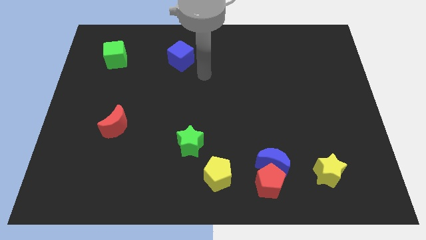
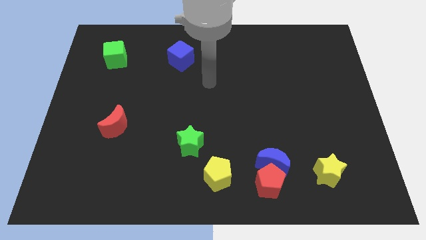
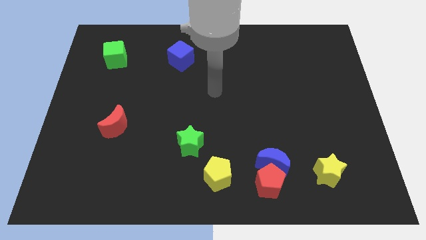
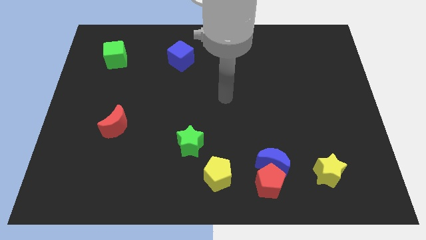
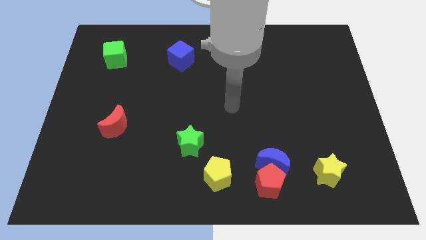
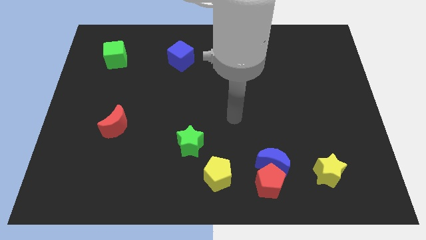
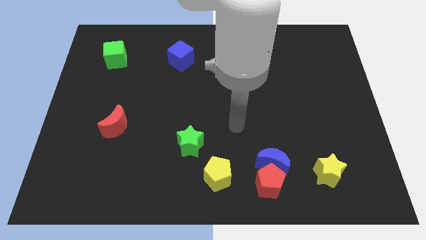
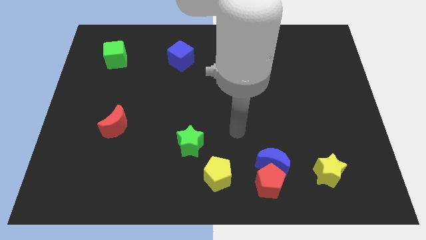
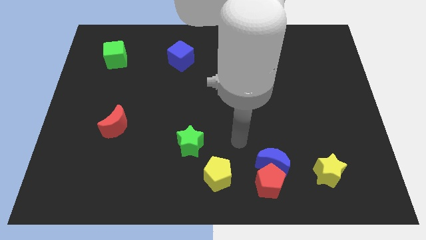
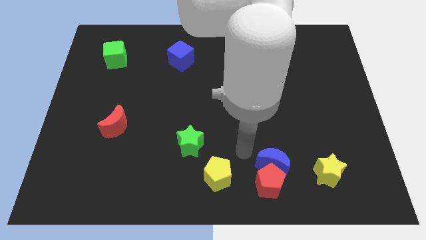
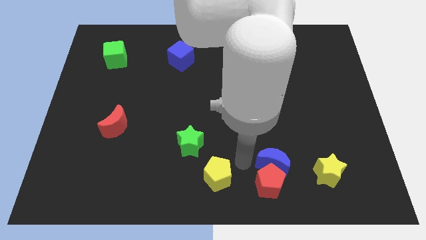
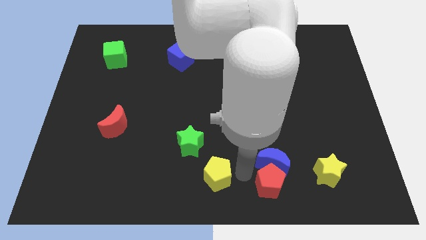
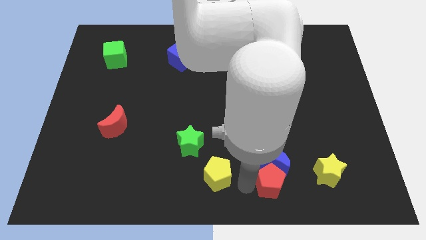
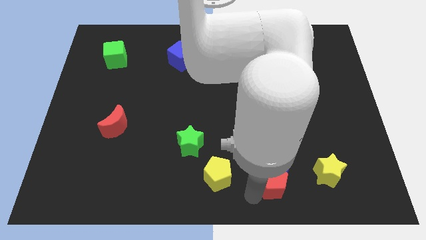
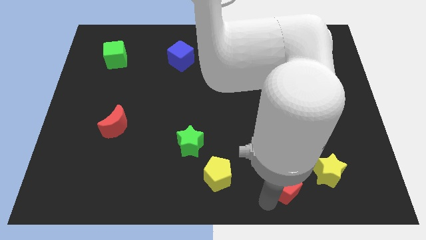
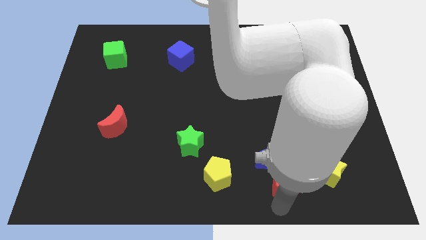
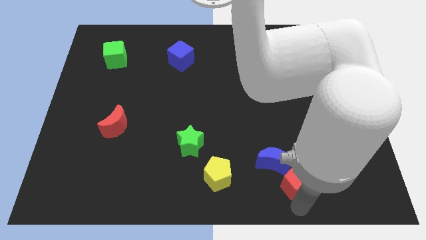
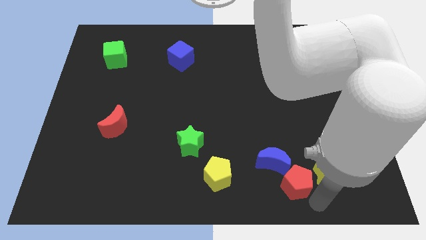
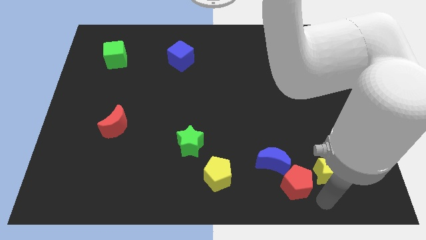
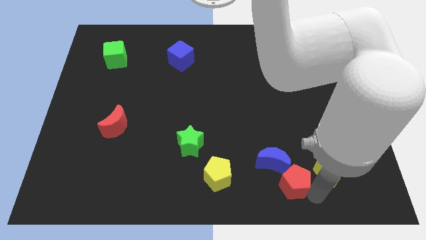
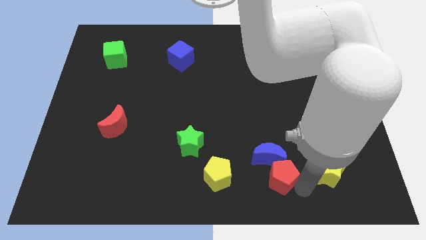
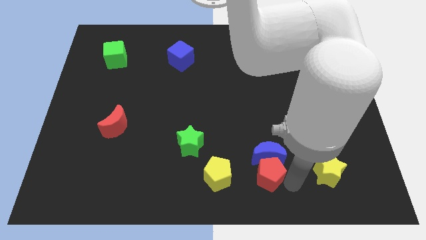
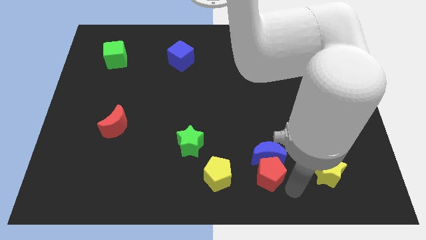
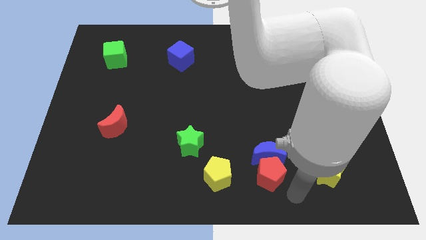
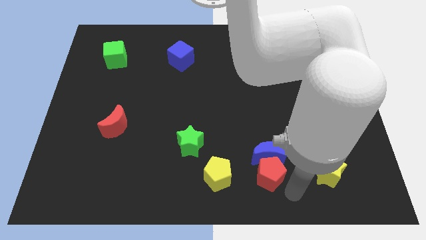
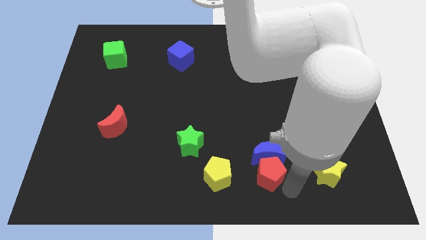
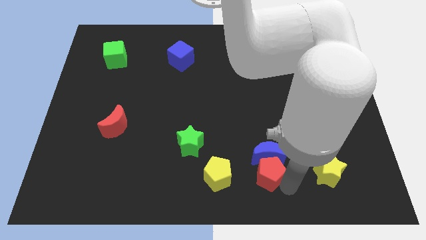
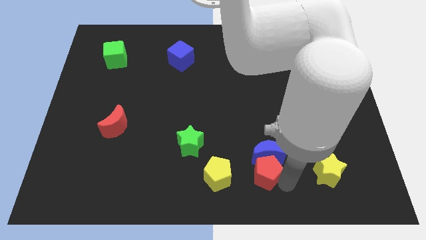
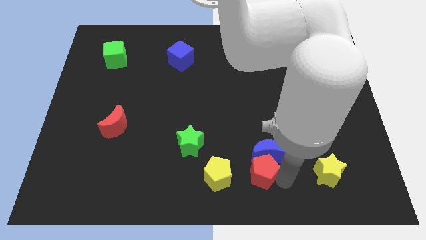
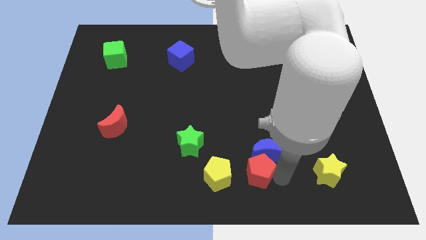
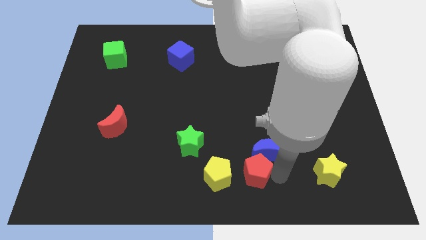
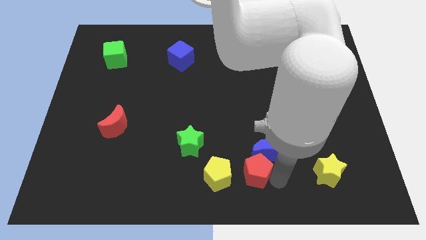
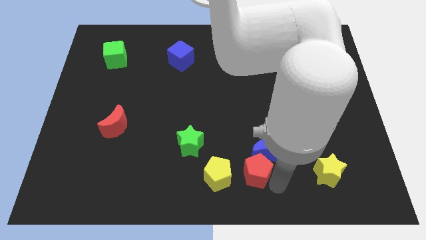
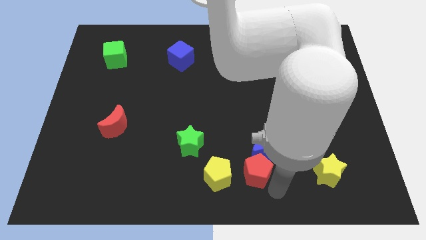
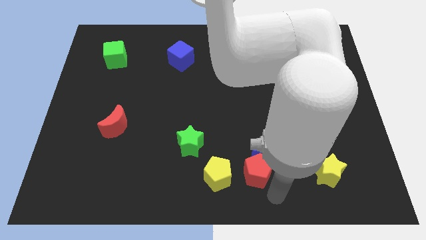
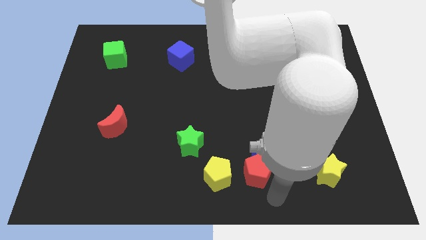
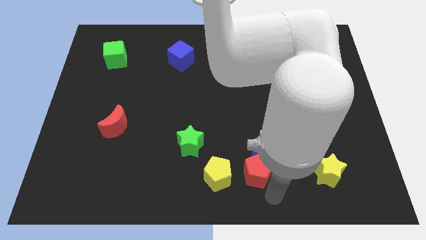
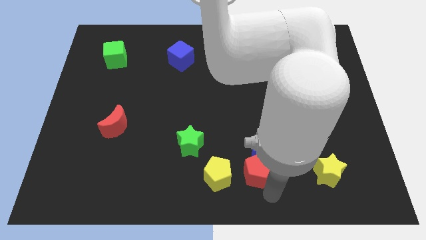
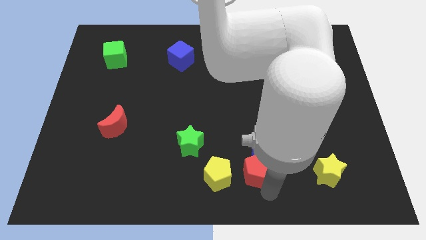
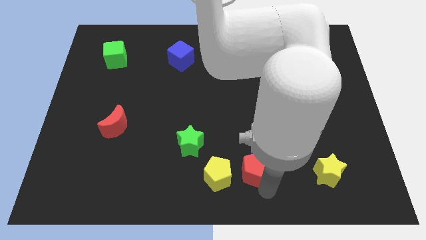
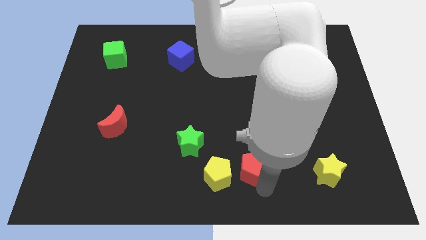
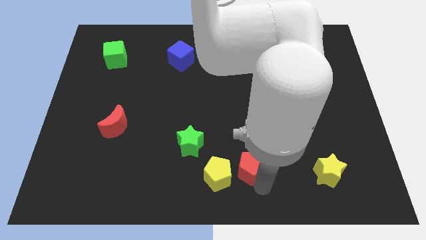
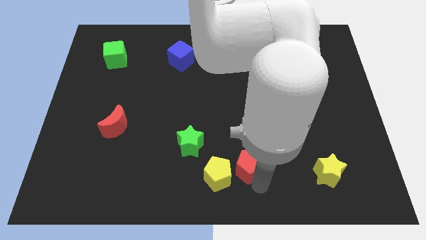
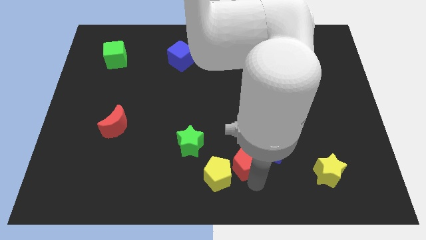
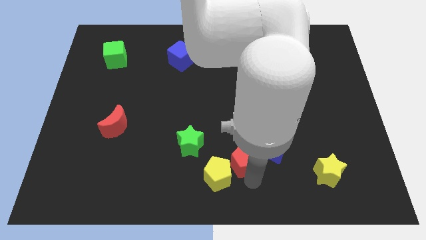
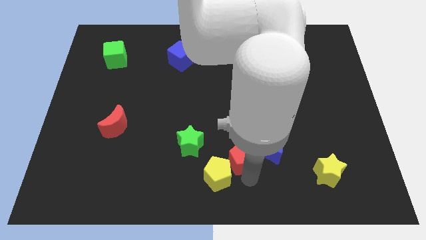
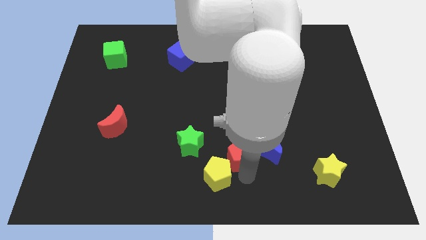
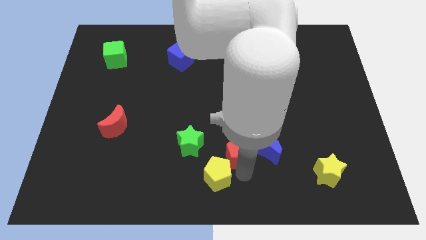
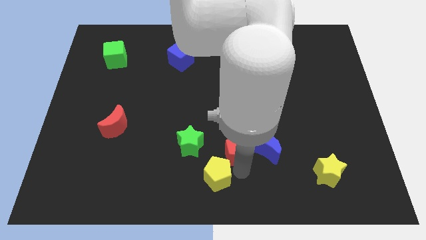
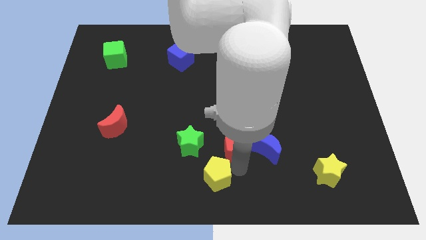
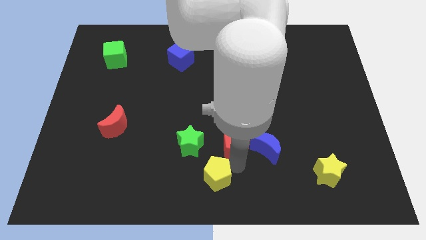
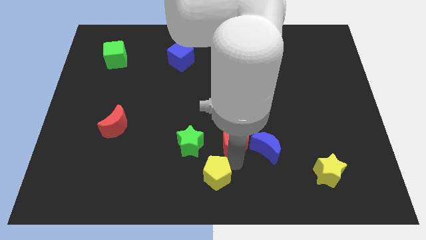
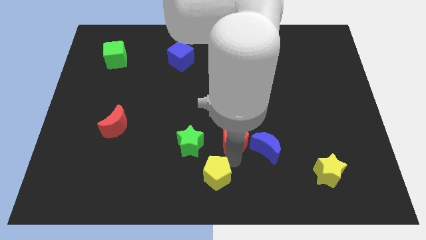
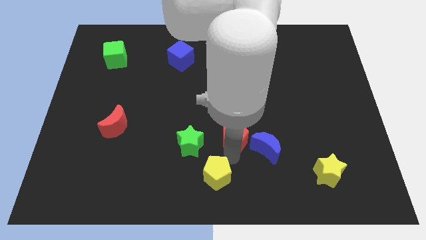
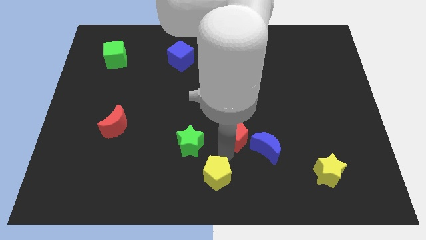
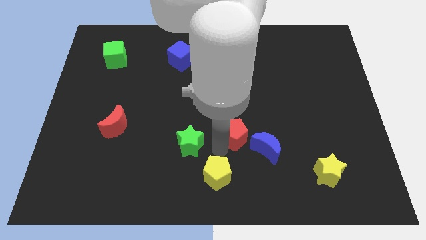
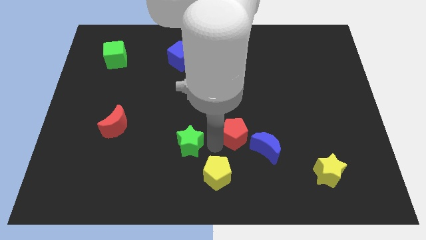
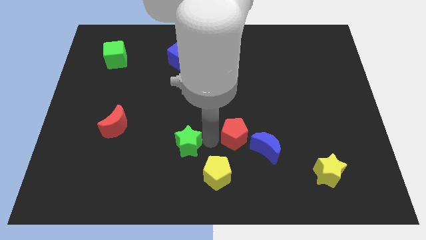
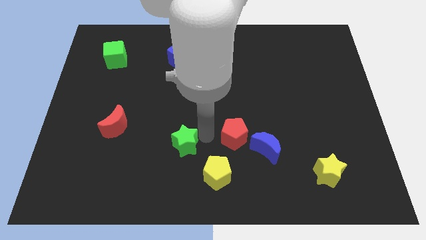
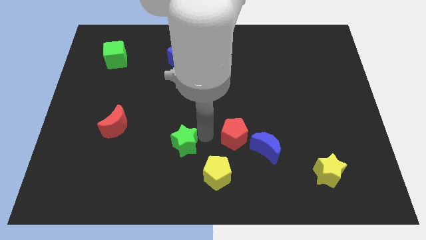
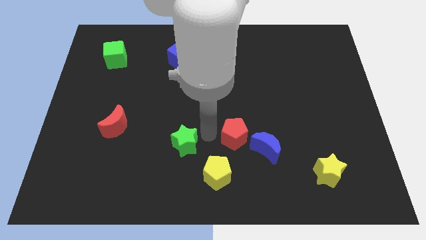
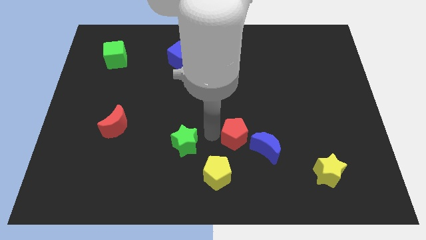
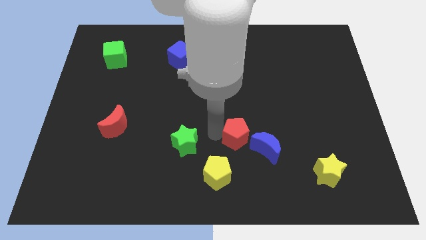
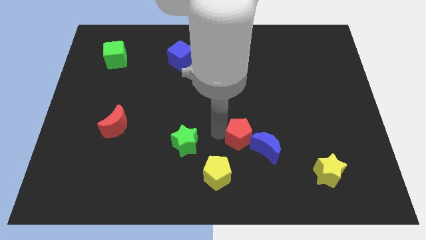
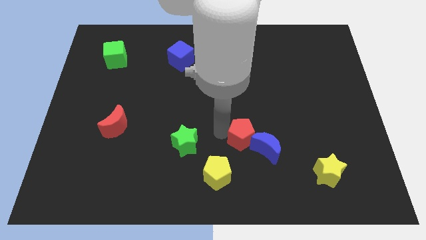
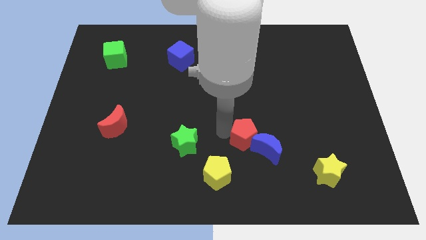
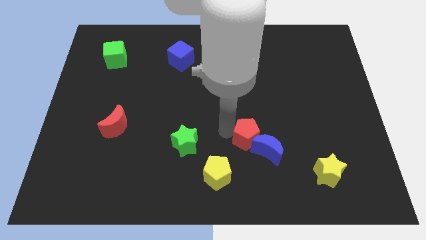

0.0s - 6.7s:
move the red pentagon above the blue moon

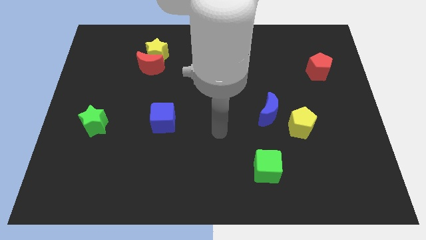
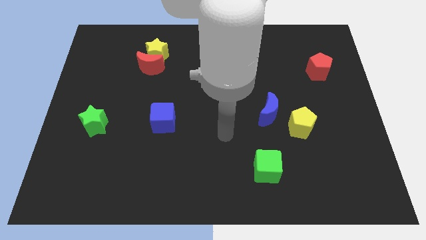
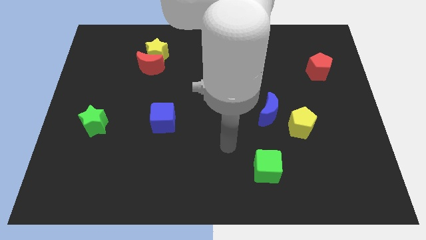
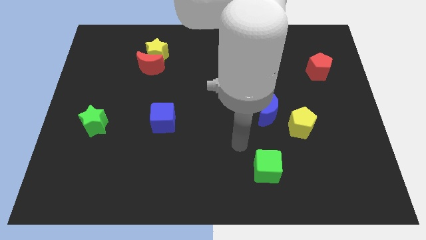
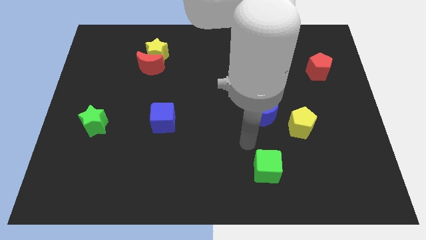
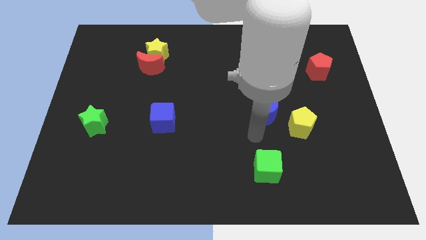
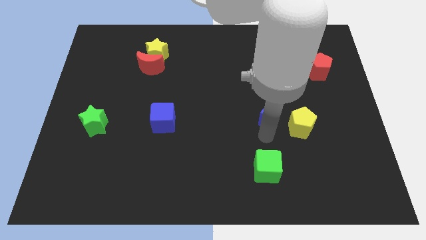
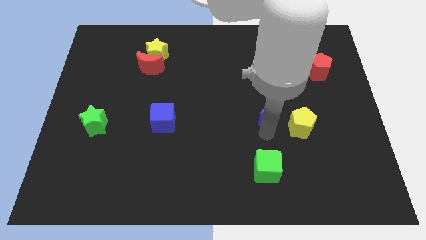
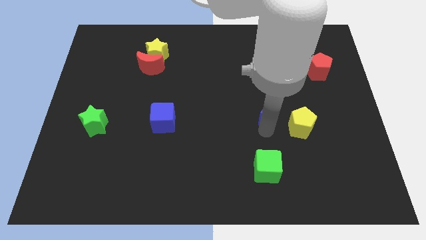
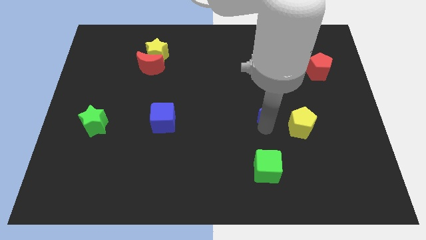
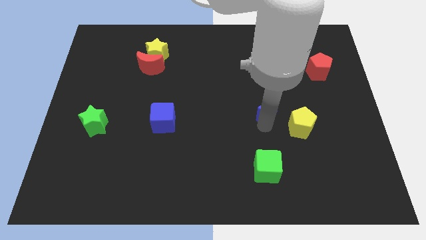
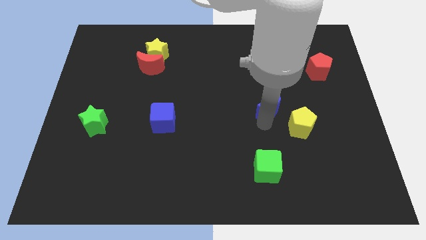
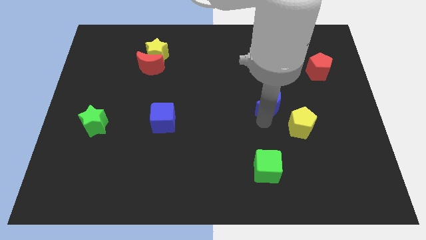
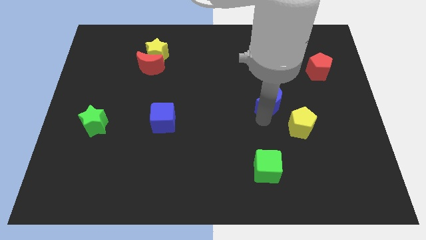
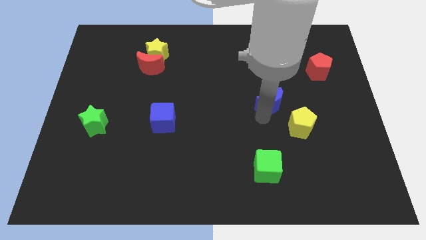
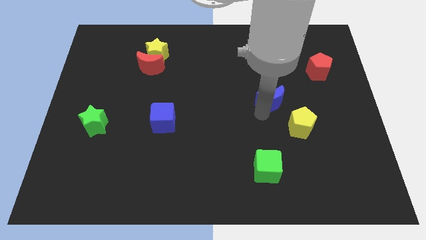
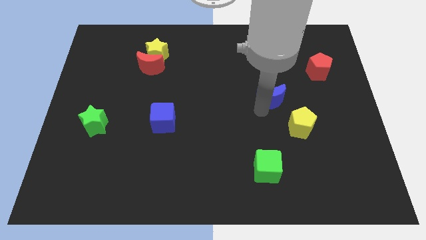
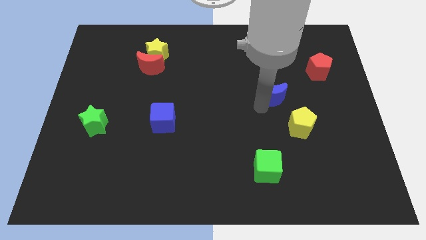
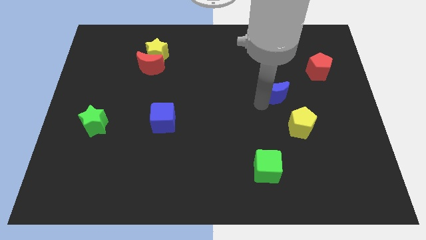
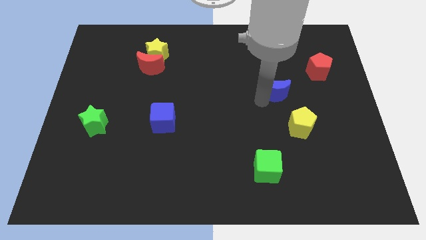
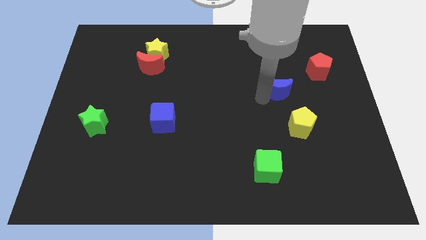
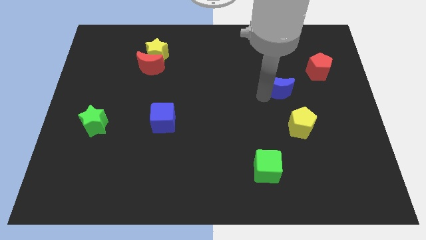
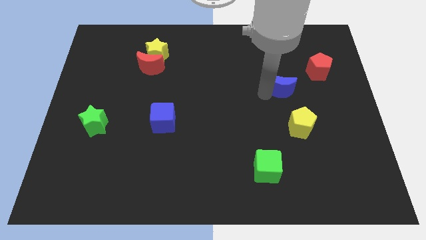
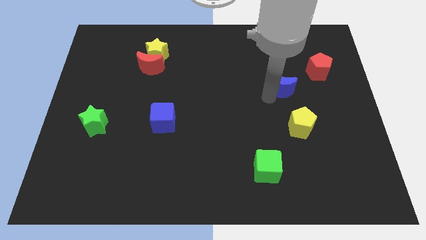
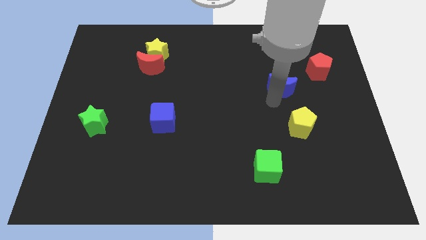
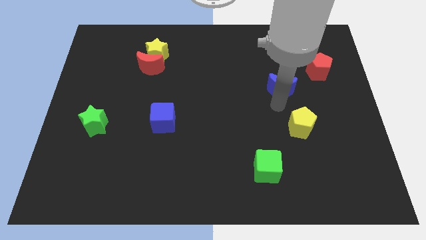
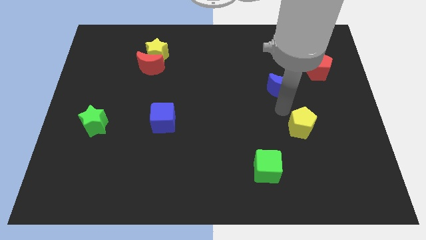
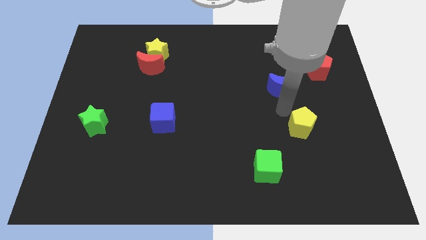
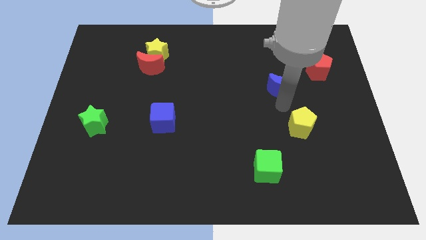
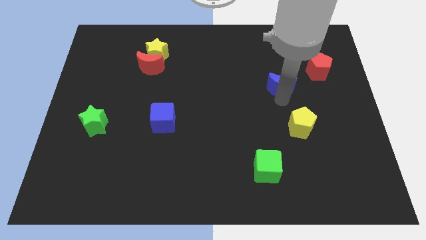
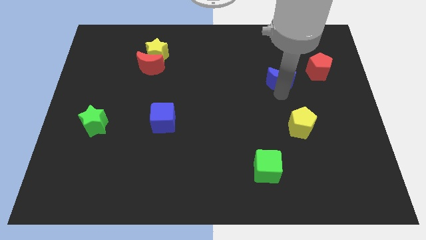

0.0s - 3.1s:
push the blue moon to the left side of the red pentagon
